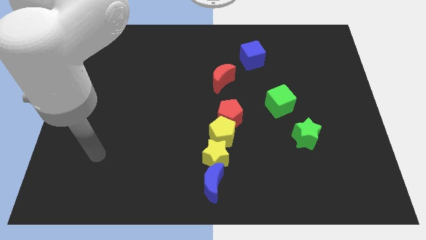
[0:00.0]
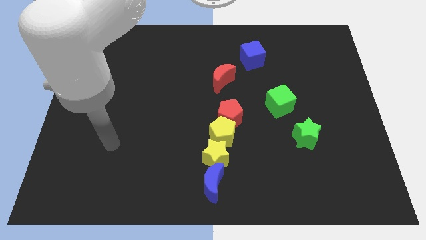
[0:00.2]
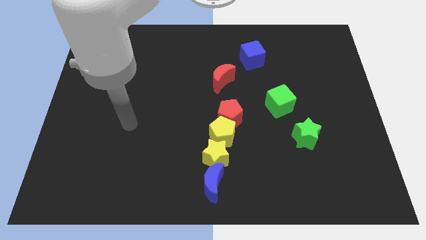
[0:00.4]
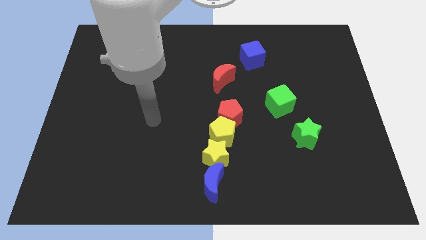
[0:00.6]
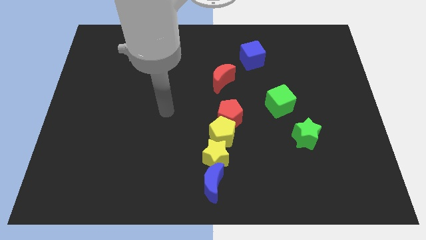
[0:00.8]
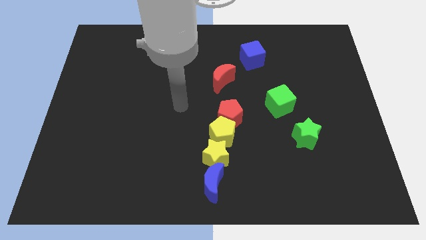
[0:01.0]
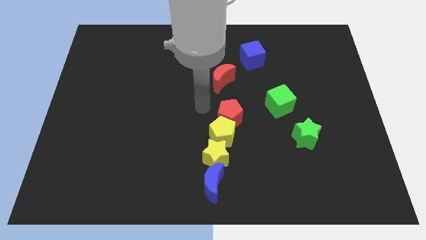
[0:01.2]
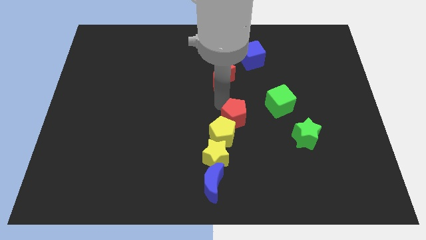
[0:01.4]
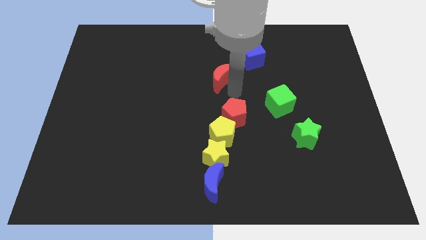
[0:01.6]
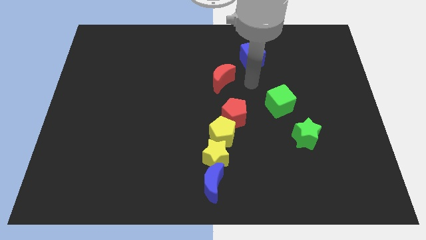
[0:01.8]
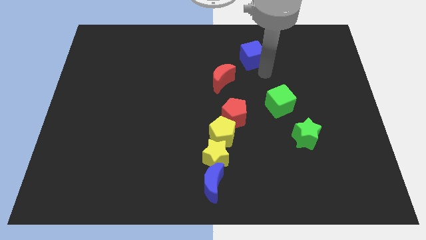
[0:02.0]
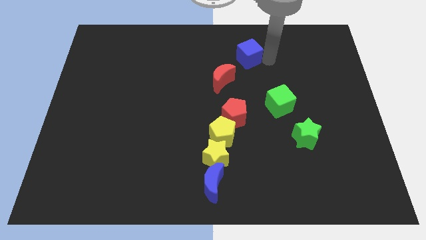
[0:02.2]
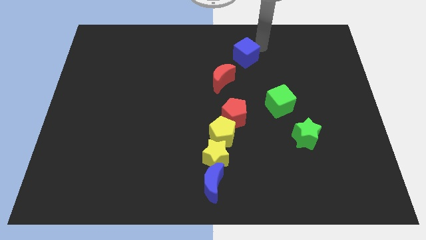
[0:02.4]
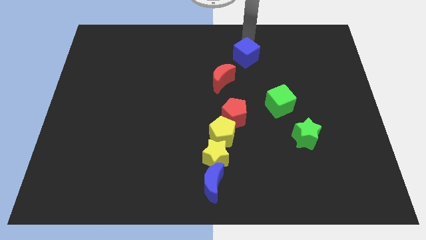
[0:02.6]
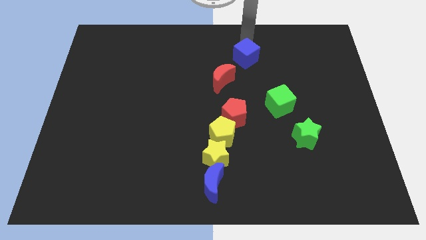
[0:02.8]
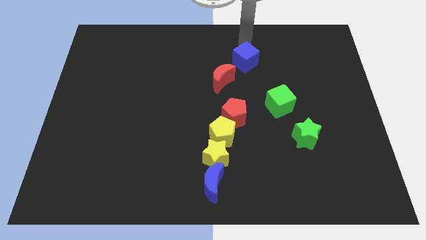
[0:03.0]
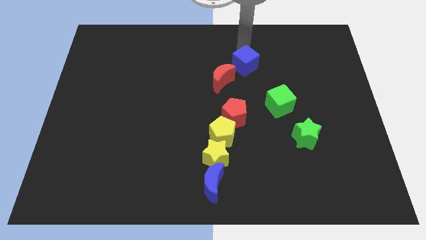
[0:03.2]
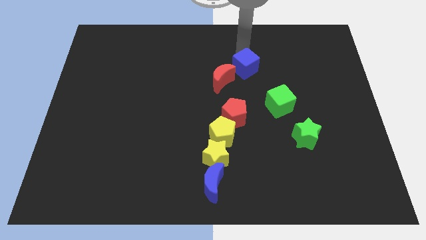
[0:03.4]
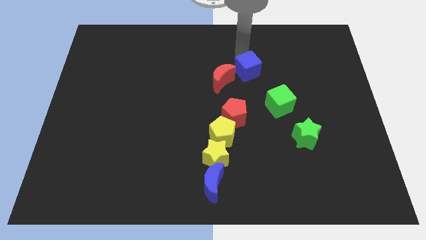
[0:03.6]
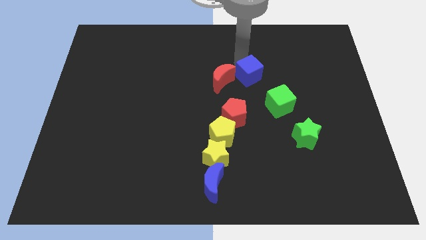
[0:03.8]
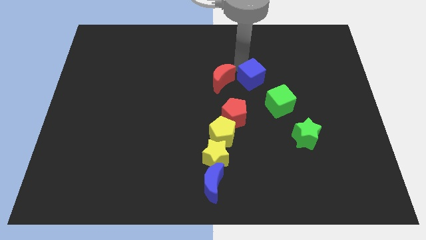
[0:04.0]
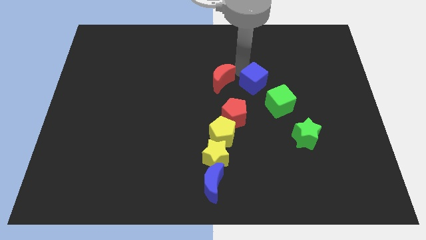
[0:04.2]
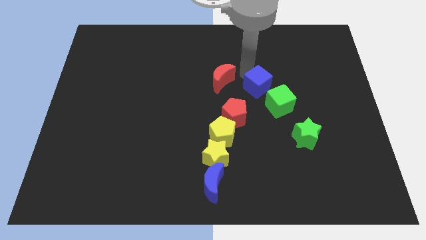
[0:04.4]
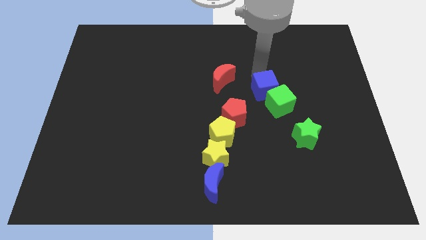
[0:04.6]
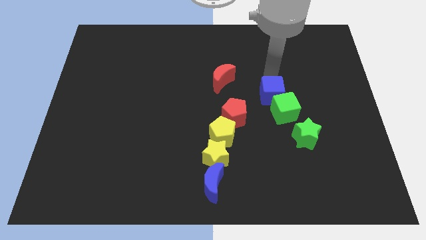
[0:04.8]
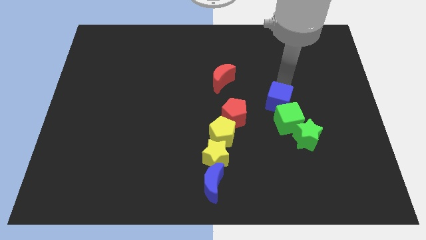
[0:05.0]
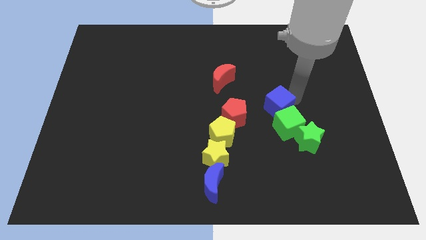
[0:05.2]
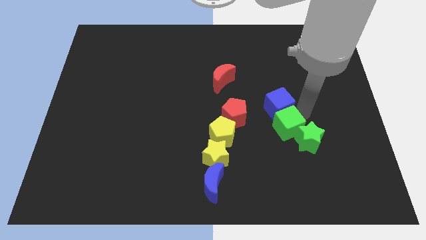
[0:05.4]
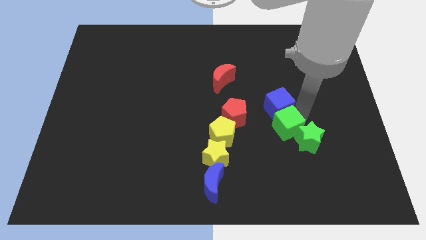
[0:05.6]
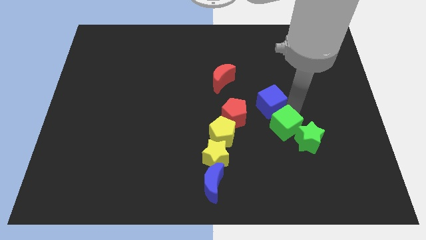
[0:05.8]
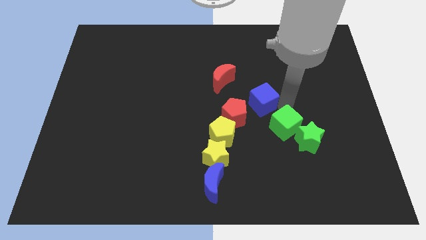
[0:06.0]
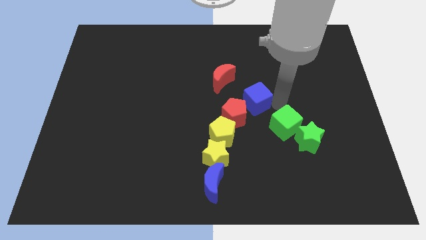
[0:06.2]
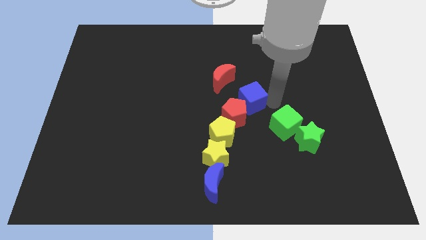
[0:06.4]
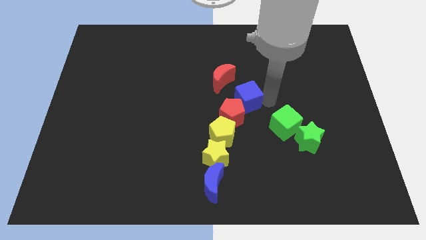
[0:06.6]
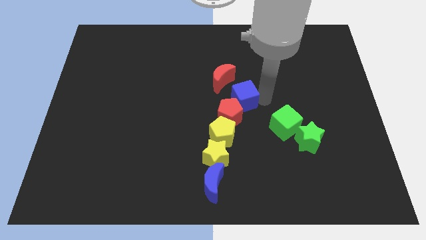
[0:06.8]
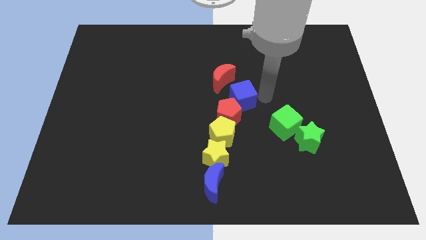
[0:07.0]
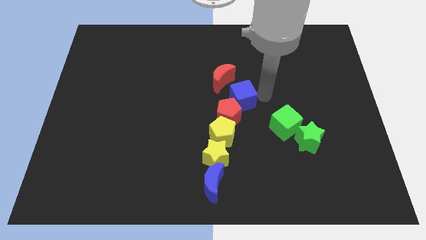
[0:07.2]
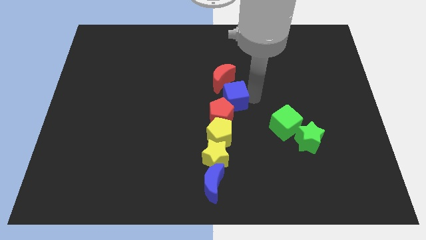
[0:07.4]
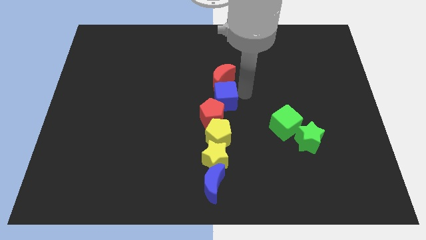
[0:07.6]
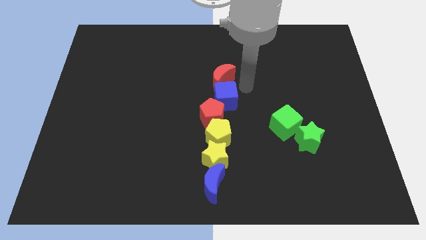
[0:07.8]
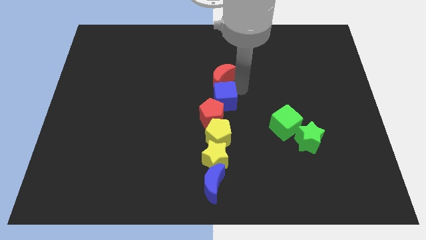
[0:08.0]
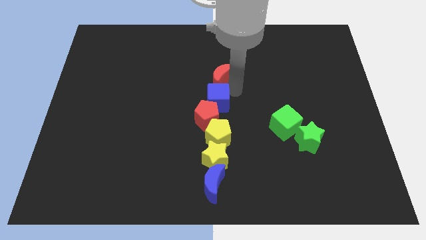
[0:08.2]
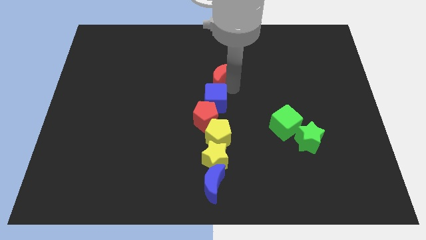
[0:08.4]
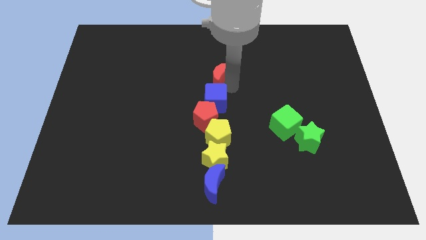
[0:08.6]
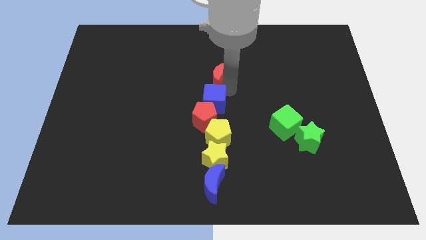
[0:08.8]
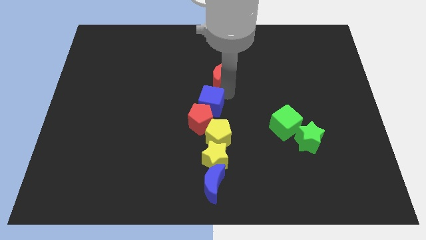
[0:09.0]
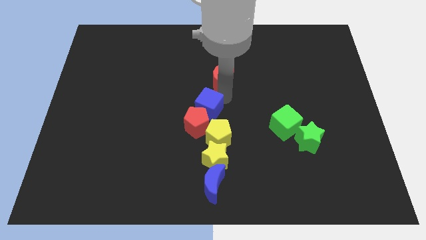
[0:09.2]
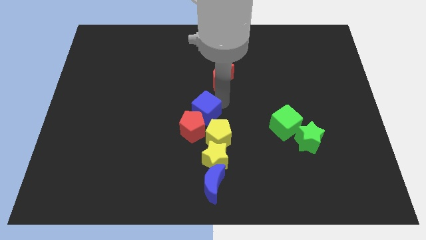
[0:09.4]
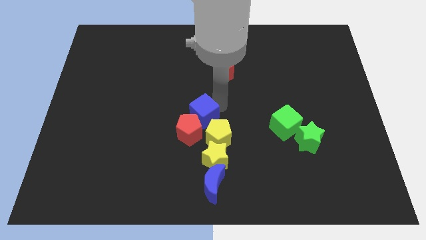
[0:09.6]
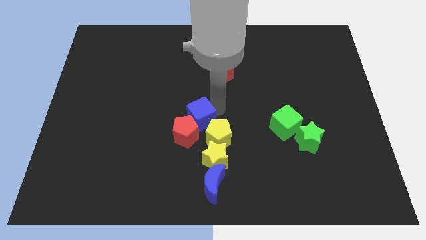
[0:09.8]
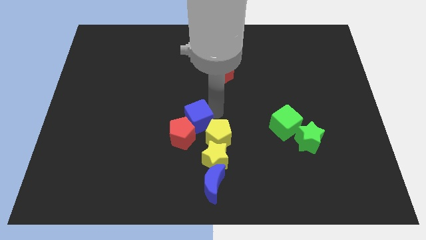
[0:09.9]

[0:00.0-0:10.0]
slide the blue cube to the left of the yellow pentagon

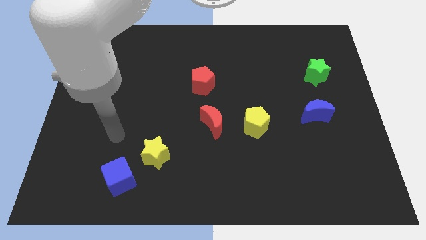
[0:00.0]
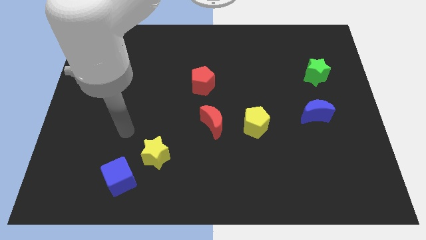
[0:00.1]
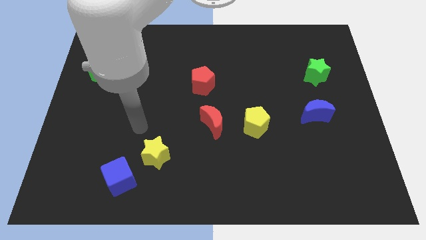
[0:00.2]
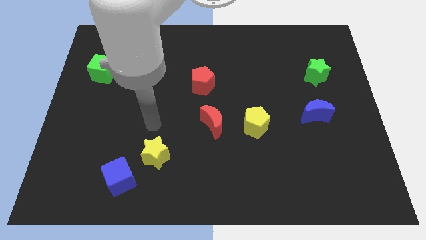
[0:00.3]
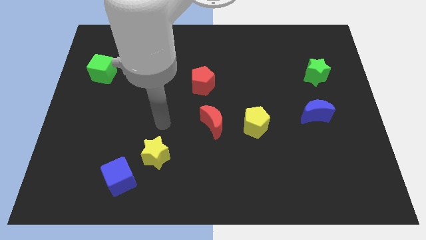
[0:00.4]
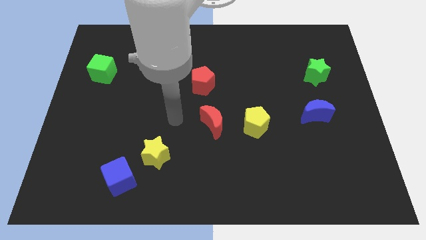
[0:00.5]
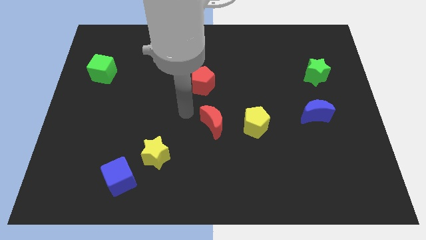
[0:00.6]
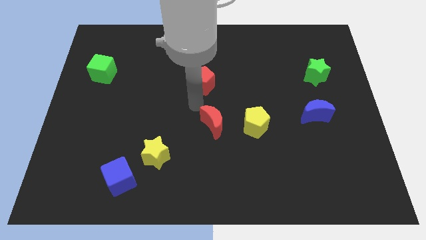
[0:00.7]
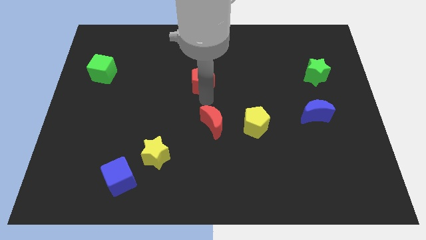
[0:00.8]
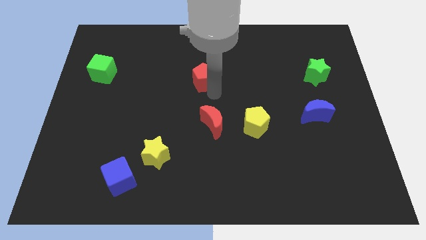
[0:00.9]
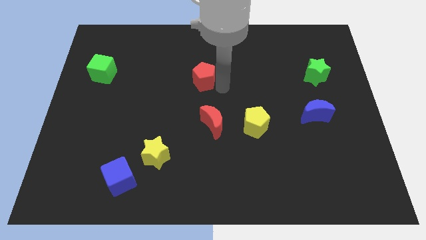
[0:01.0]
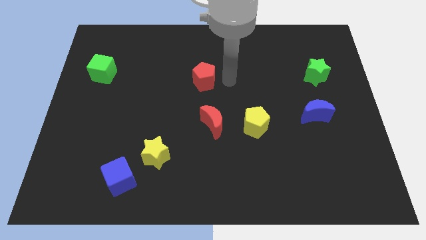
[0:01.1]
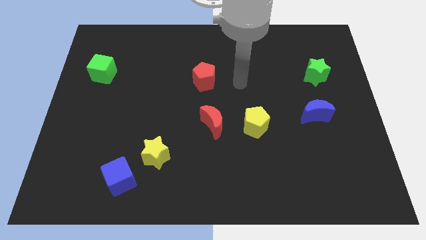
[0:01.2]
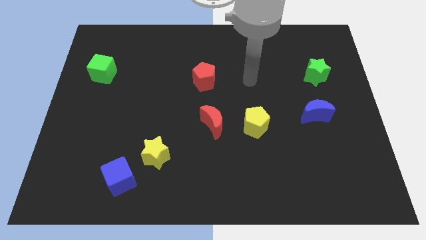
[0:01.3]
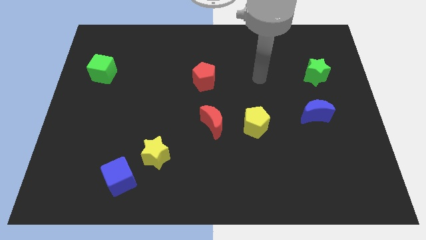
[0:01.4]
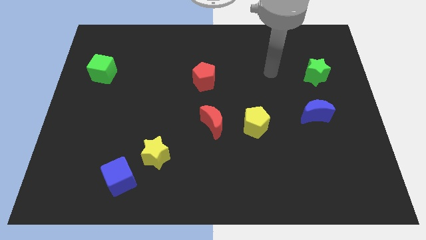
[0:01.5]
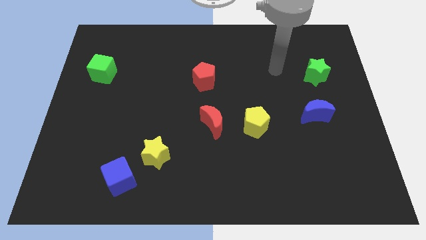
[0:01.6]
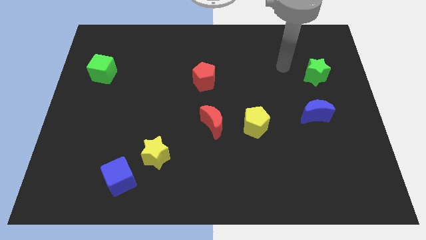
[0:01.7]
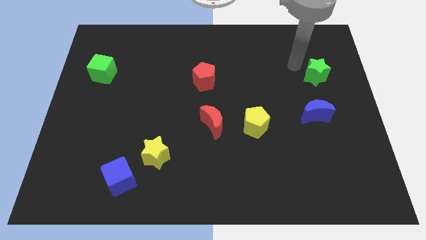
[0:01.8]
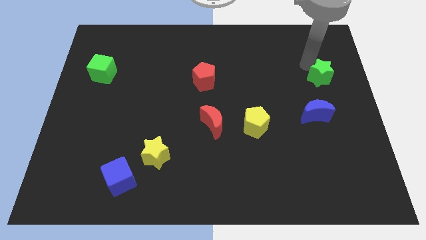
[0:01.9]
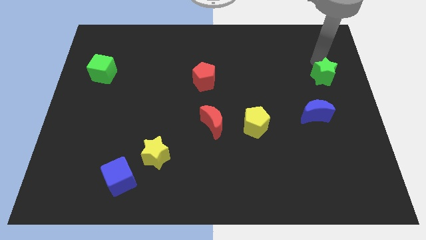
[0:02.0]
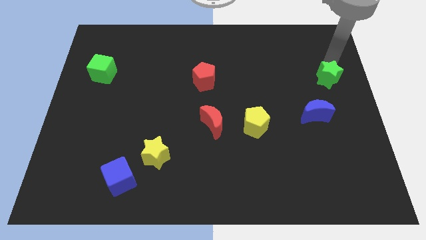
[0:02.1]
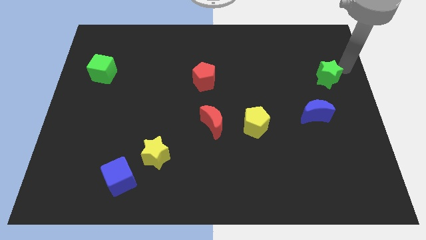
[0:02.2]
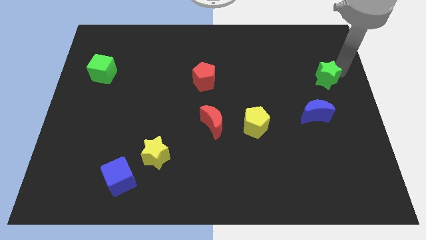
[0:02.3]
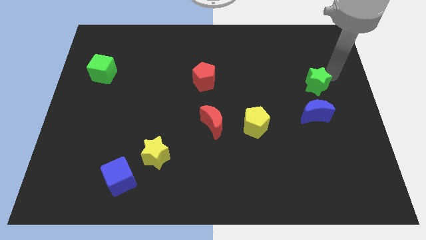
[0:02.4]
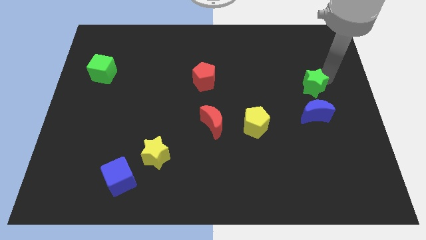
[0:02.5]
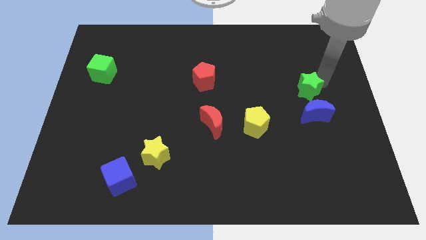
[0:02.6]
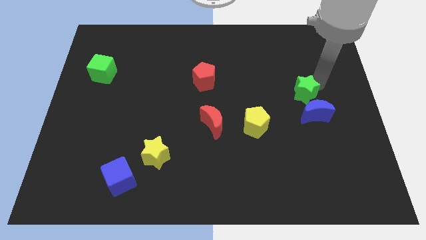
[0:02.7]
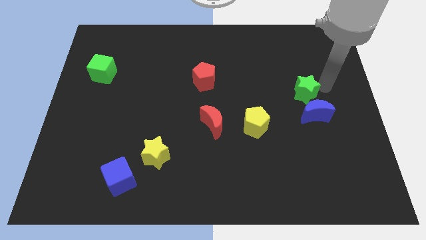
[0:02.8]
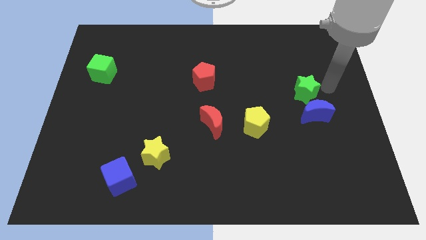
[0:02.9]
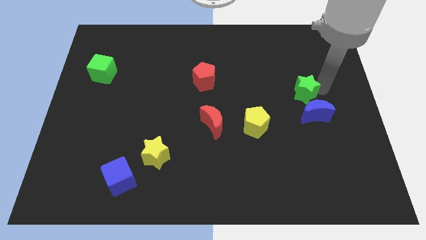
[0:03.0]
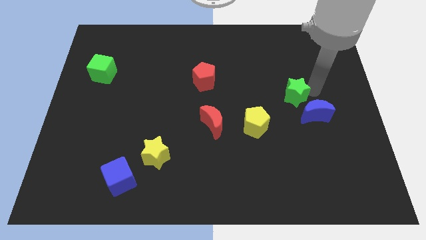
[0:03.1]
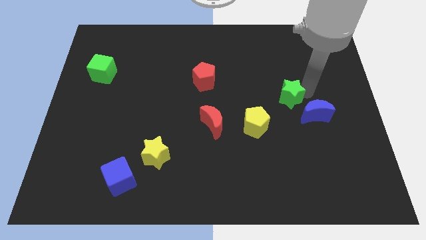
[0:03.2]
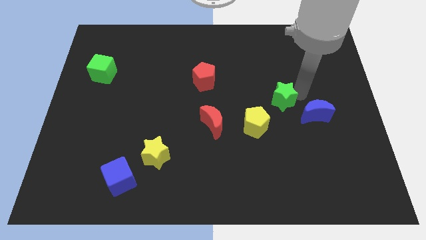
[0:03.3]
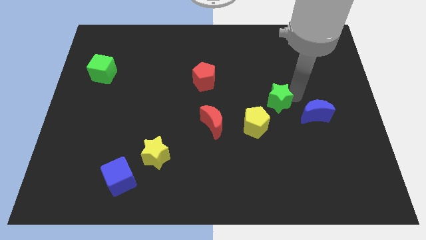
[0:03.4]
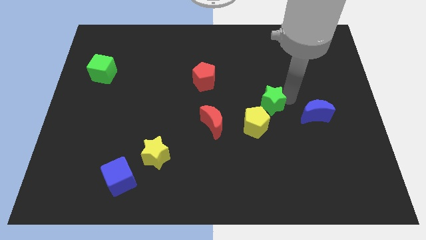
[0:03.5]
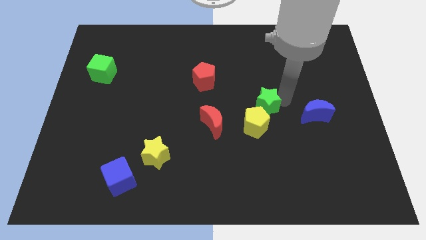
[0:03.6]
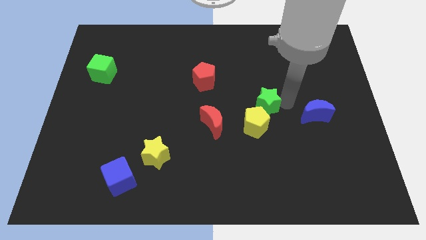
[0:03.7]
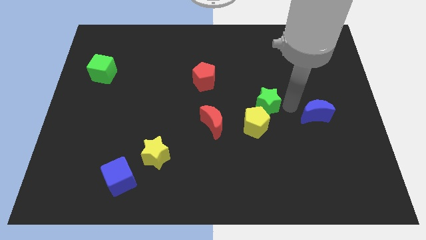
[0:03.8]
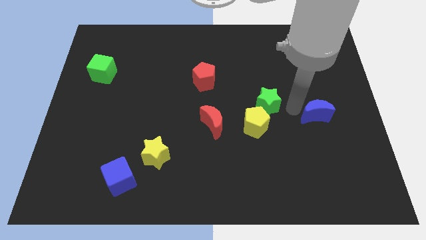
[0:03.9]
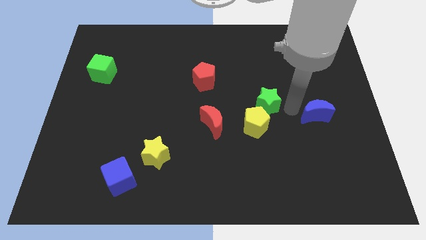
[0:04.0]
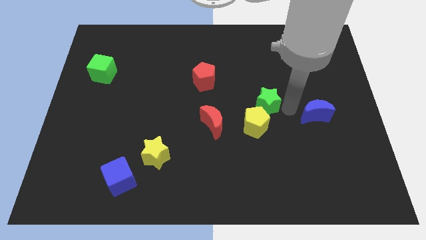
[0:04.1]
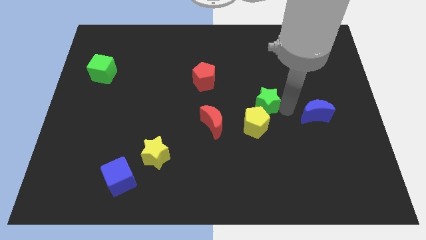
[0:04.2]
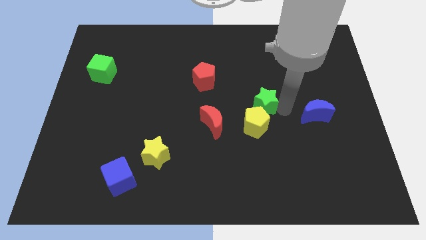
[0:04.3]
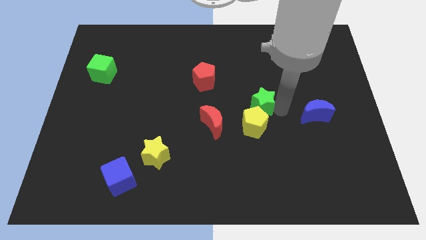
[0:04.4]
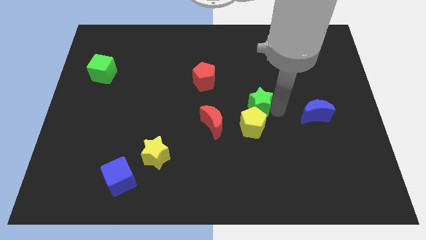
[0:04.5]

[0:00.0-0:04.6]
put the green star to the top right side of the red moon
